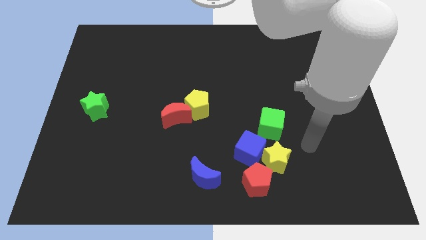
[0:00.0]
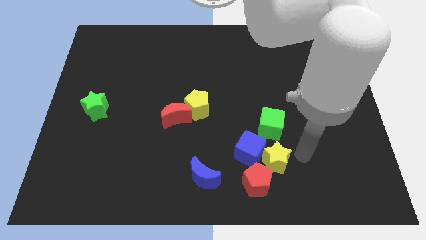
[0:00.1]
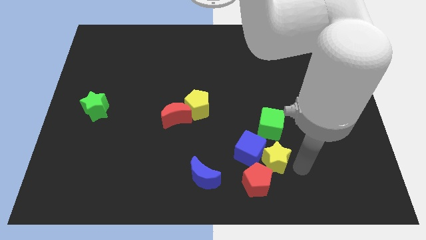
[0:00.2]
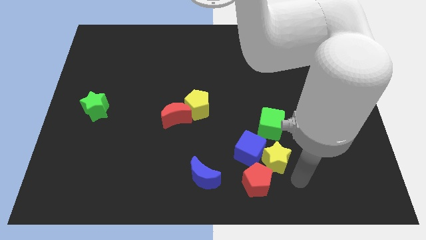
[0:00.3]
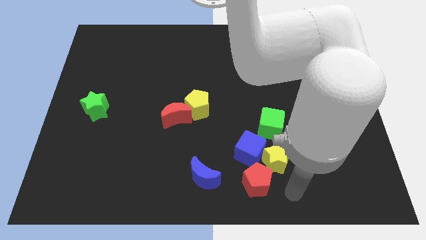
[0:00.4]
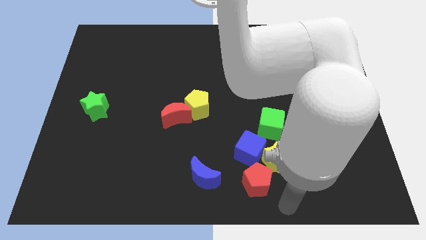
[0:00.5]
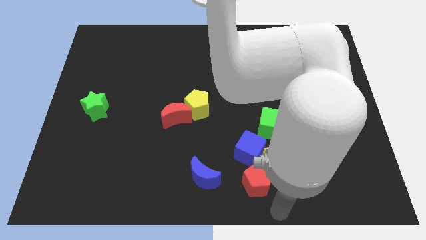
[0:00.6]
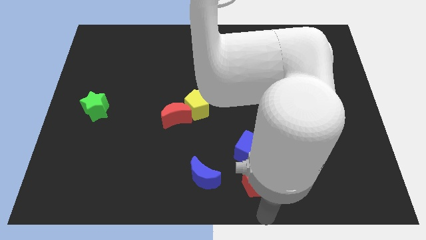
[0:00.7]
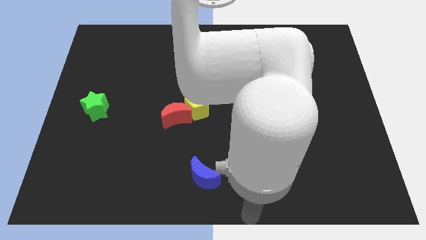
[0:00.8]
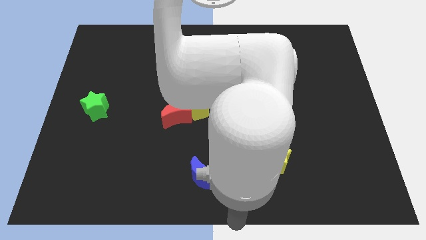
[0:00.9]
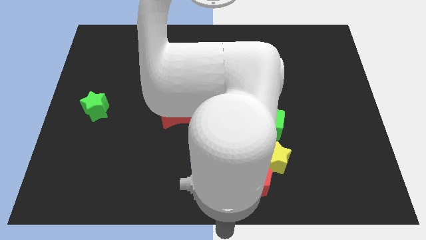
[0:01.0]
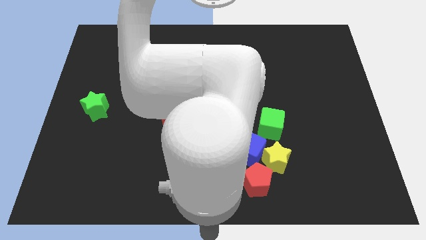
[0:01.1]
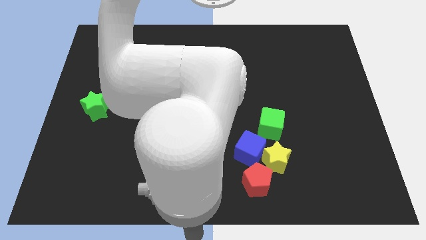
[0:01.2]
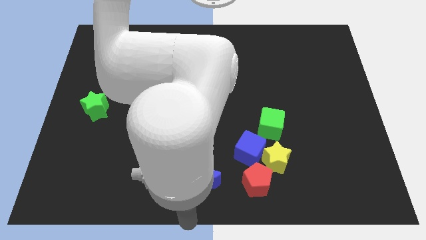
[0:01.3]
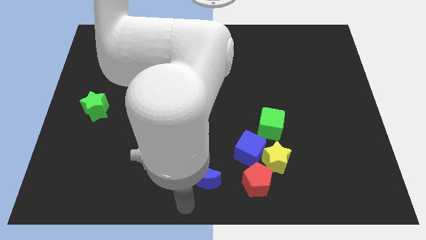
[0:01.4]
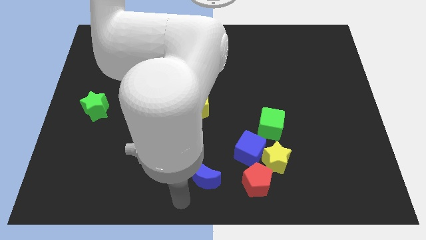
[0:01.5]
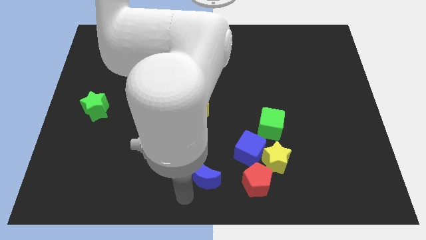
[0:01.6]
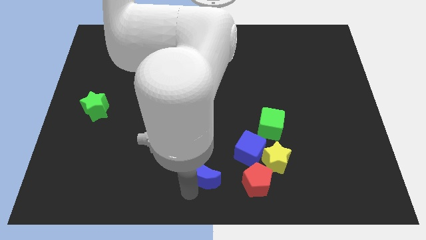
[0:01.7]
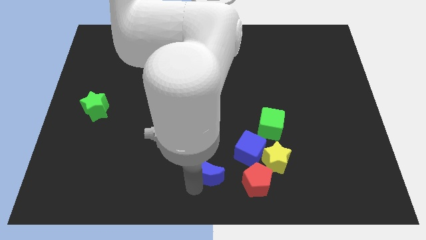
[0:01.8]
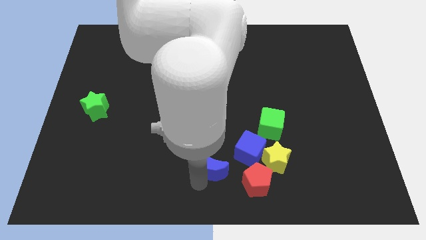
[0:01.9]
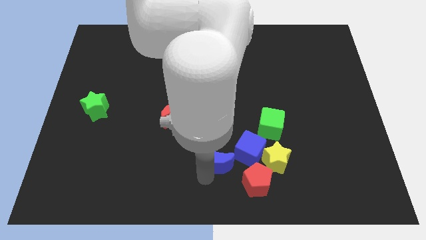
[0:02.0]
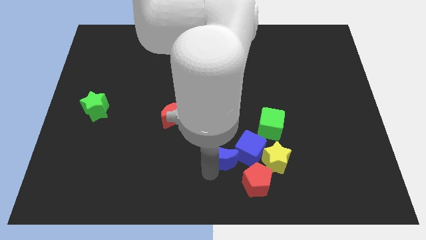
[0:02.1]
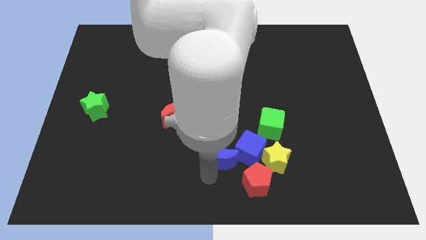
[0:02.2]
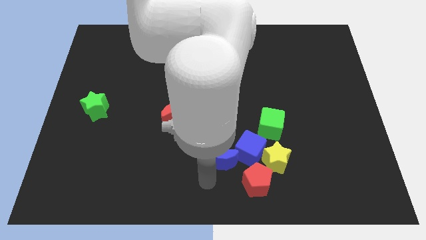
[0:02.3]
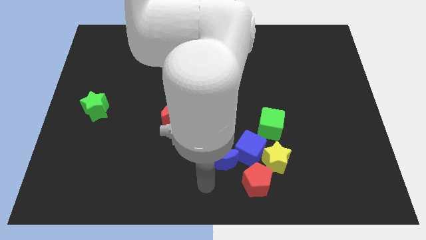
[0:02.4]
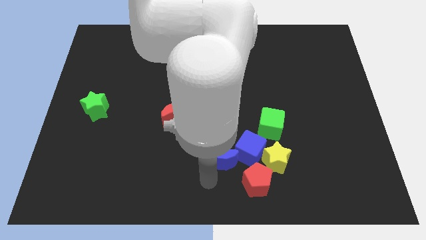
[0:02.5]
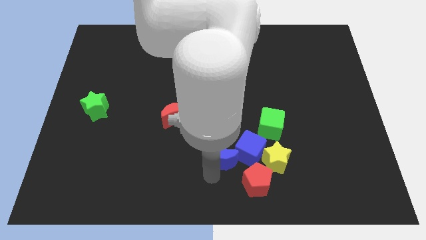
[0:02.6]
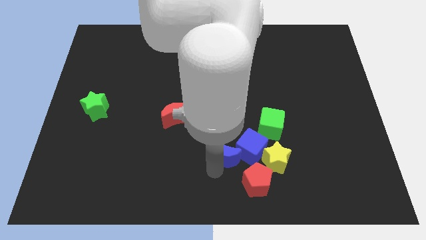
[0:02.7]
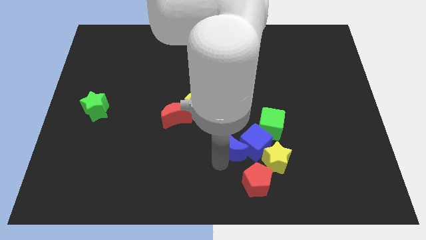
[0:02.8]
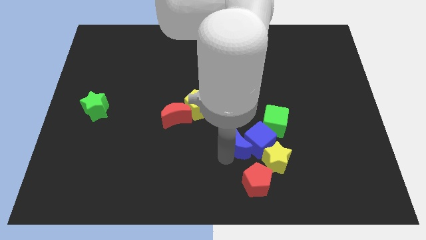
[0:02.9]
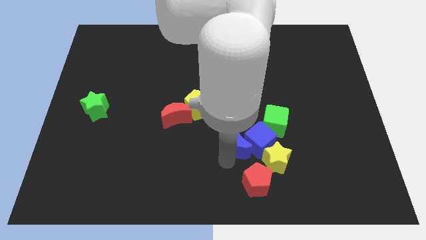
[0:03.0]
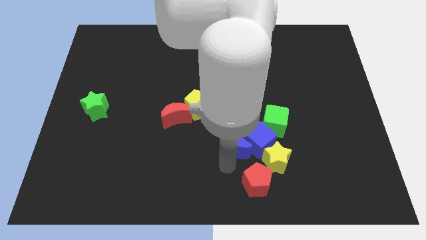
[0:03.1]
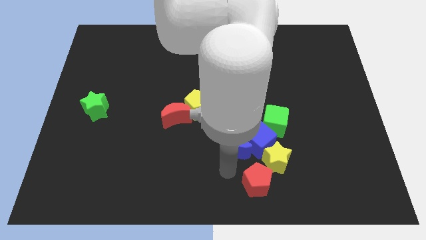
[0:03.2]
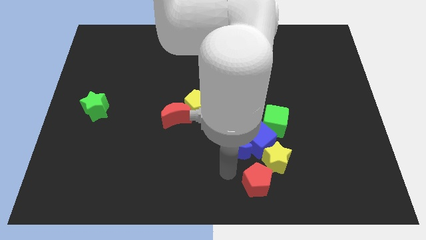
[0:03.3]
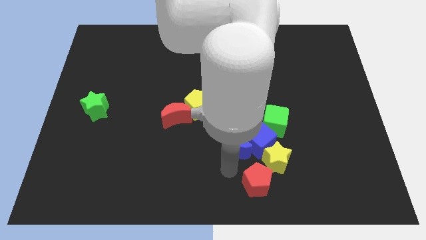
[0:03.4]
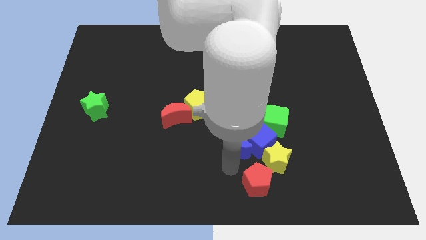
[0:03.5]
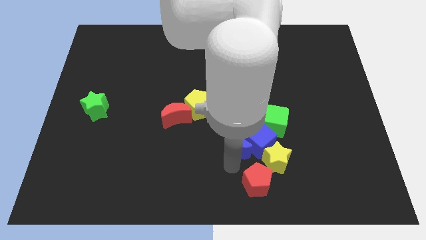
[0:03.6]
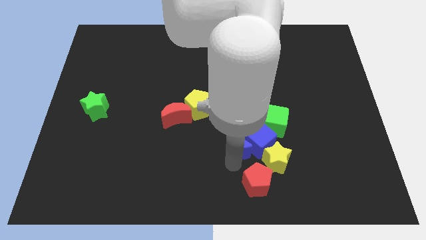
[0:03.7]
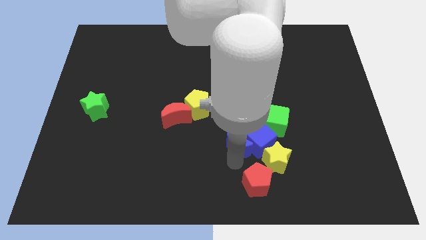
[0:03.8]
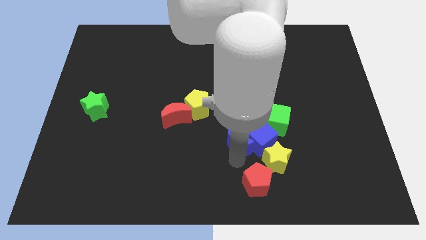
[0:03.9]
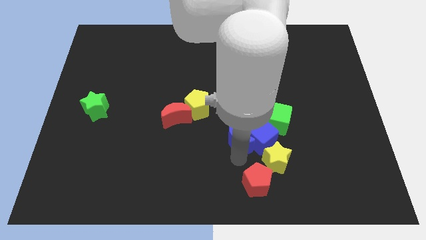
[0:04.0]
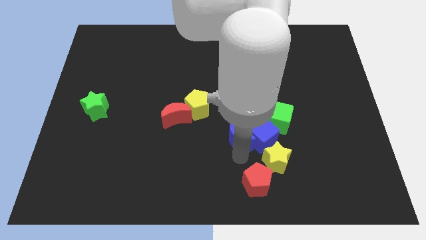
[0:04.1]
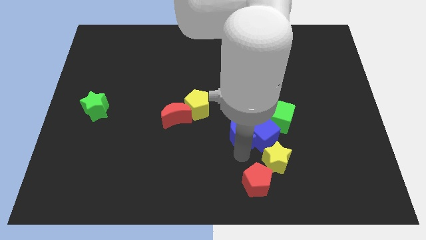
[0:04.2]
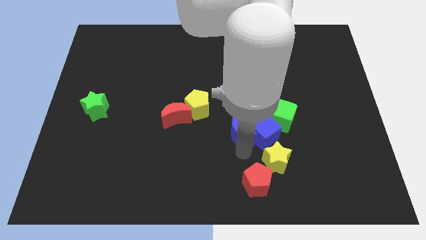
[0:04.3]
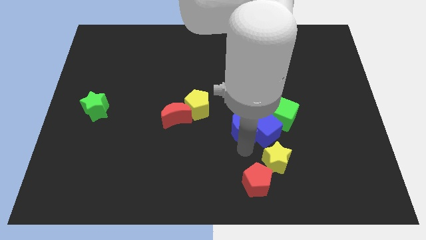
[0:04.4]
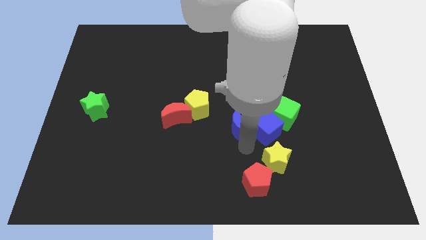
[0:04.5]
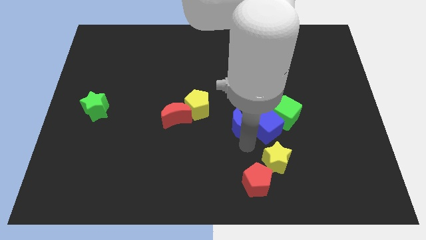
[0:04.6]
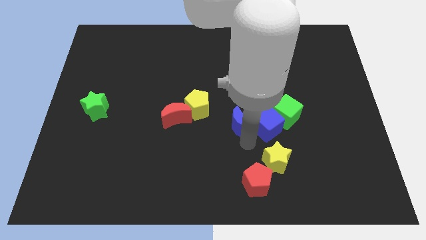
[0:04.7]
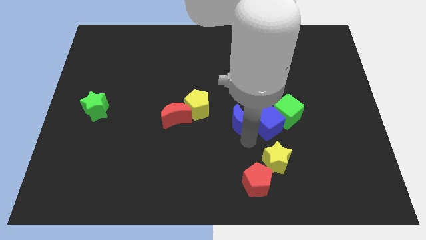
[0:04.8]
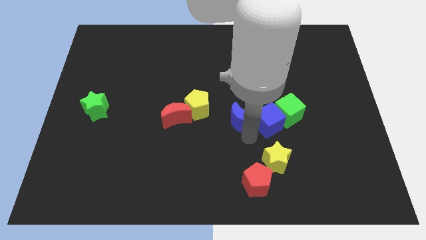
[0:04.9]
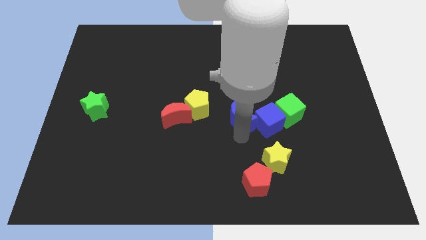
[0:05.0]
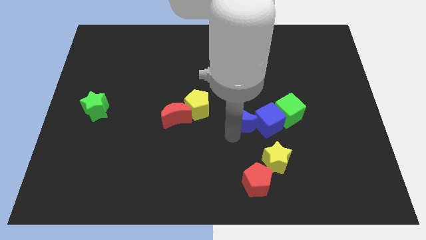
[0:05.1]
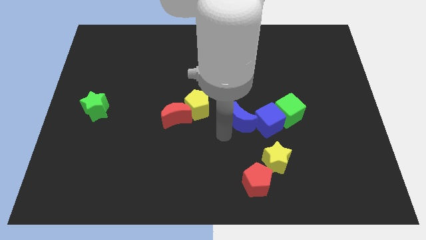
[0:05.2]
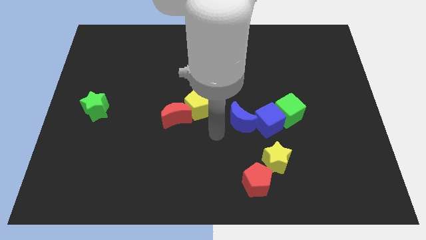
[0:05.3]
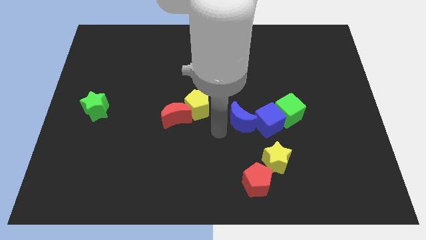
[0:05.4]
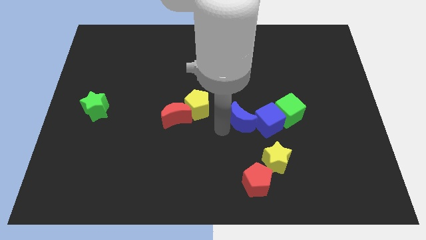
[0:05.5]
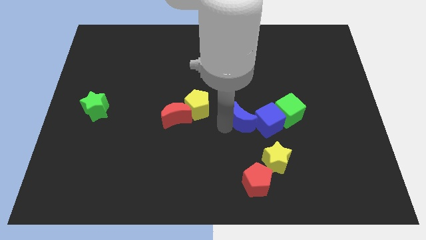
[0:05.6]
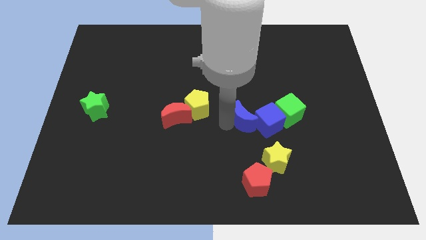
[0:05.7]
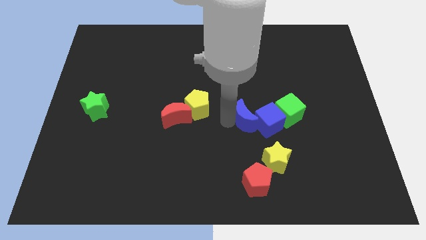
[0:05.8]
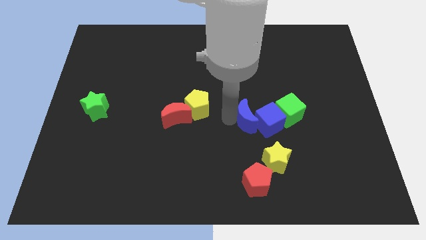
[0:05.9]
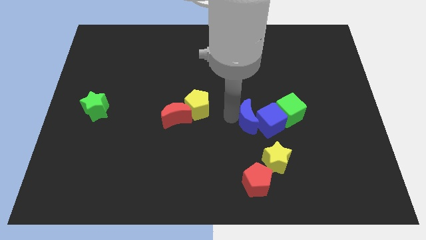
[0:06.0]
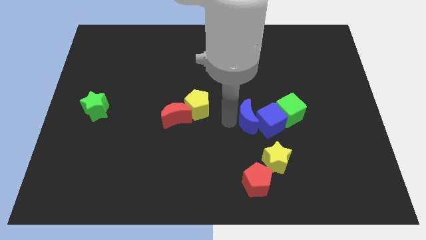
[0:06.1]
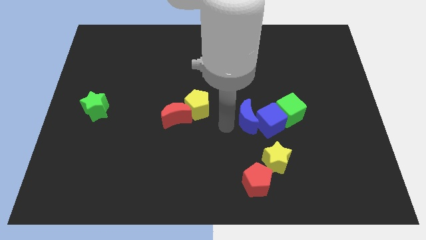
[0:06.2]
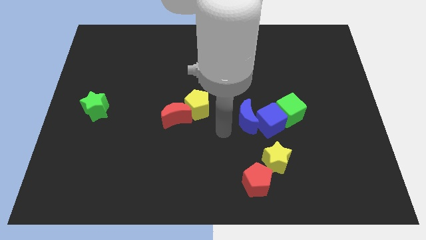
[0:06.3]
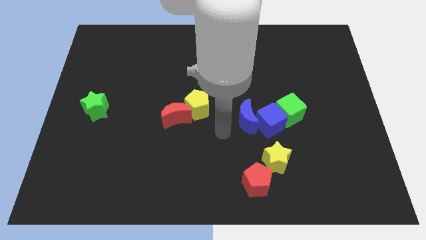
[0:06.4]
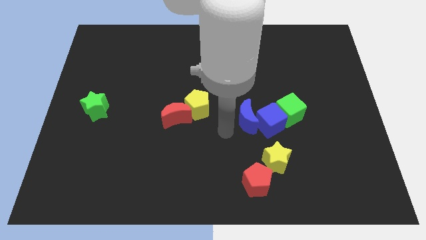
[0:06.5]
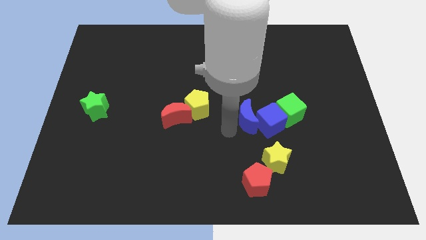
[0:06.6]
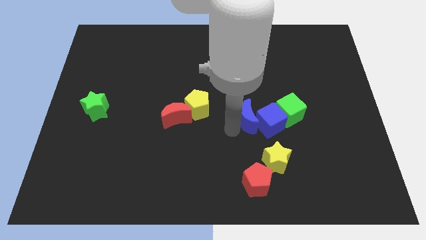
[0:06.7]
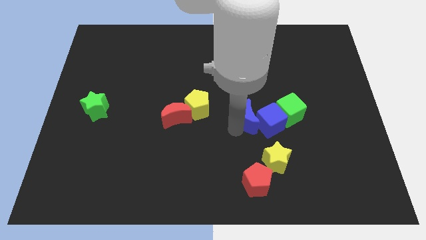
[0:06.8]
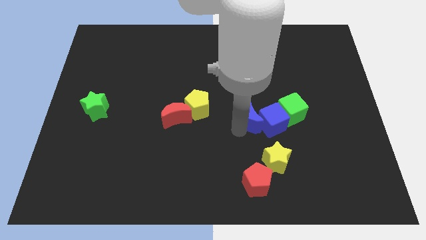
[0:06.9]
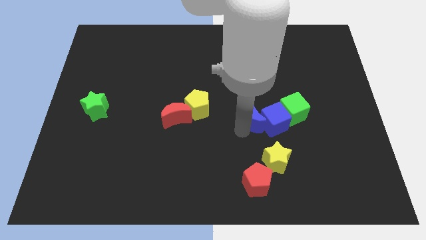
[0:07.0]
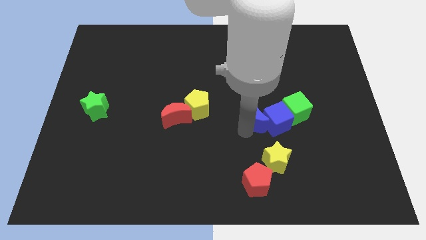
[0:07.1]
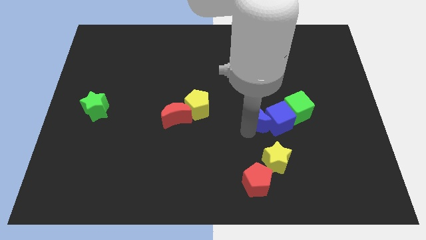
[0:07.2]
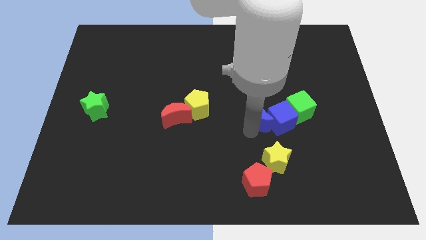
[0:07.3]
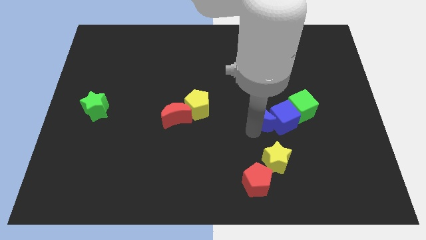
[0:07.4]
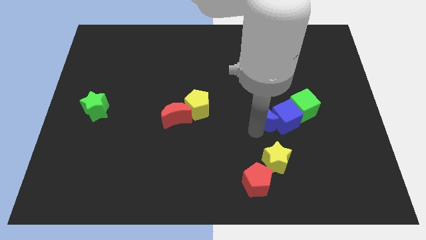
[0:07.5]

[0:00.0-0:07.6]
slide the blue moon up and right

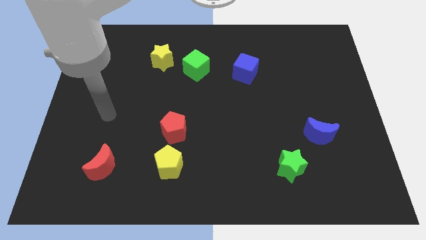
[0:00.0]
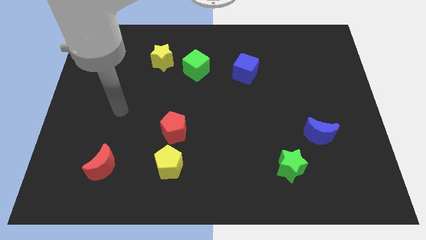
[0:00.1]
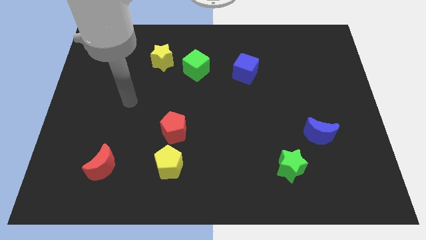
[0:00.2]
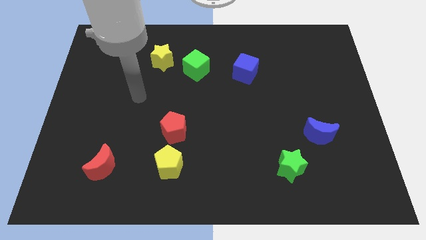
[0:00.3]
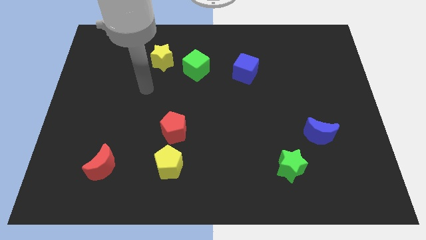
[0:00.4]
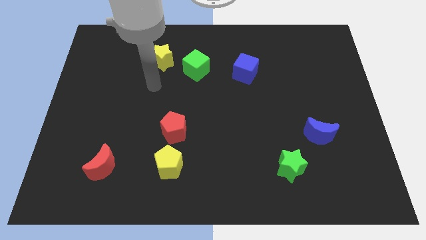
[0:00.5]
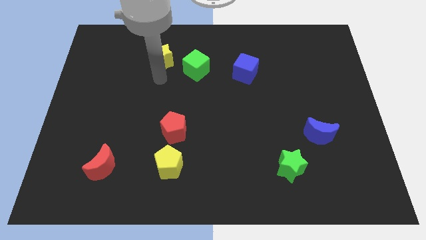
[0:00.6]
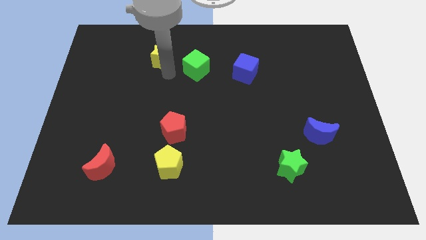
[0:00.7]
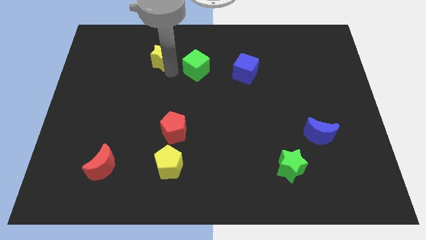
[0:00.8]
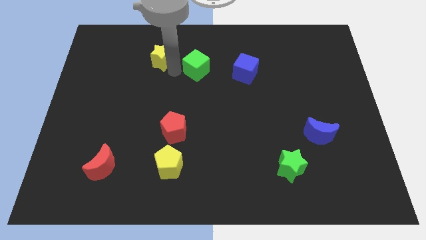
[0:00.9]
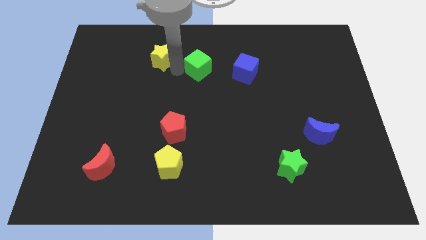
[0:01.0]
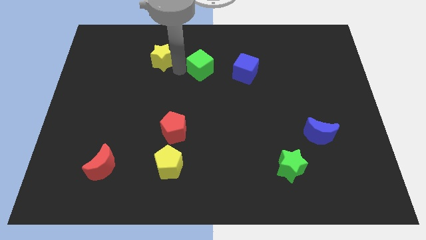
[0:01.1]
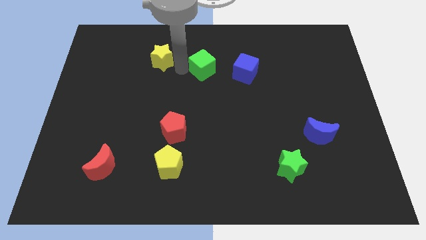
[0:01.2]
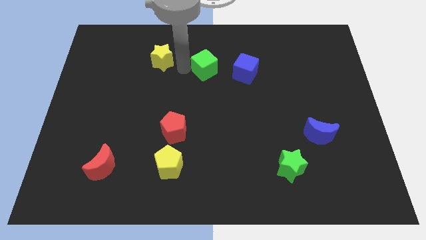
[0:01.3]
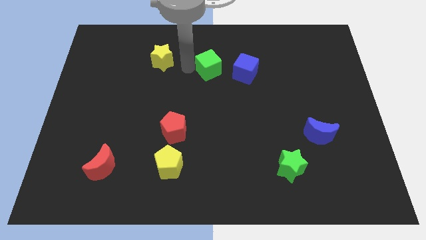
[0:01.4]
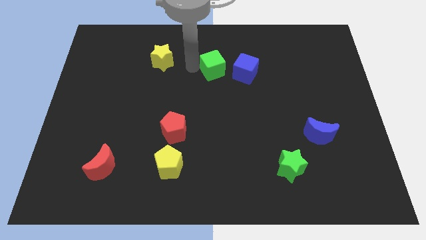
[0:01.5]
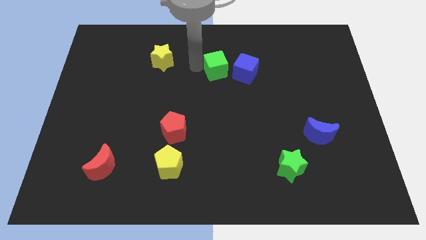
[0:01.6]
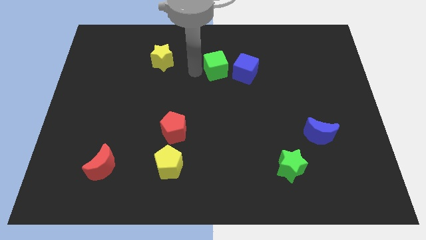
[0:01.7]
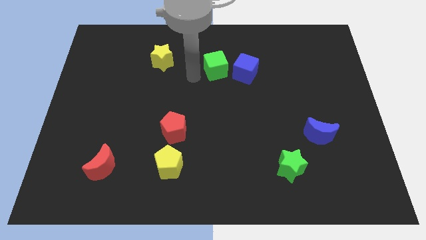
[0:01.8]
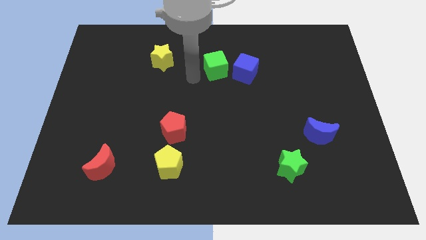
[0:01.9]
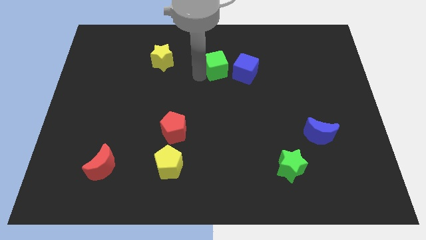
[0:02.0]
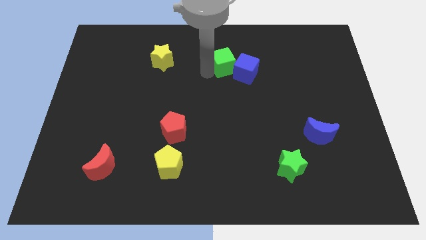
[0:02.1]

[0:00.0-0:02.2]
slightly push the green cube to the right
